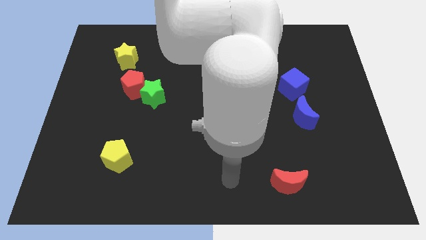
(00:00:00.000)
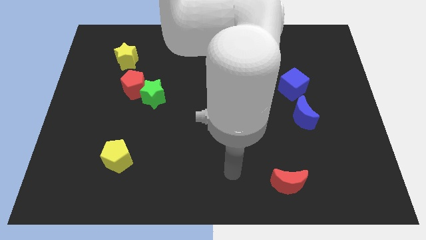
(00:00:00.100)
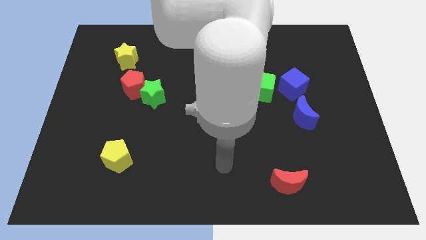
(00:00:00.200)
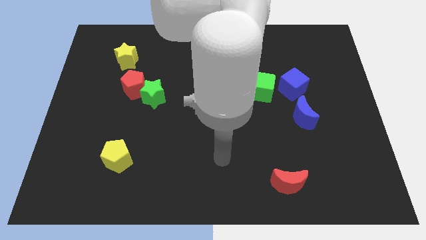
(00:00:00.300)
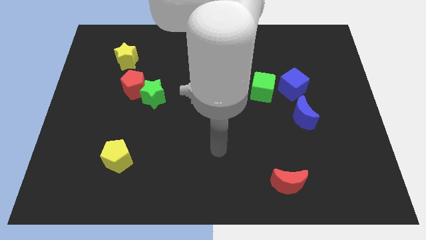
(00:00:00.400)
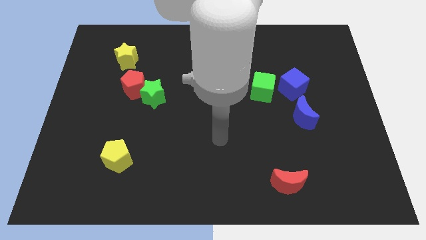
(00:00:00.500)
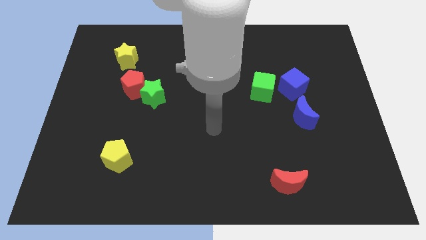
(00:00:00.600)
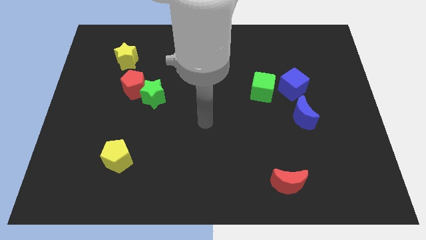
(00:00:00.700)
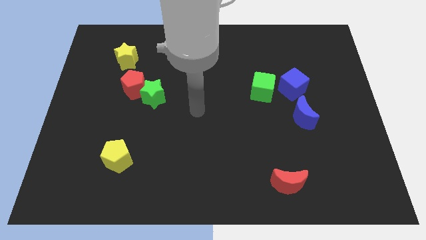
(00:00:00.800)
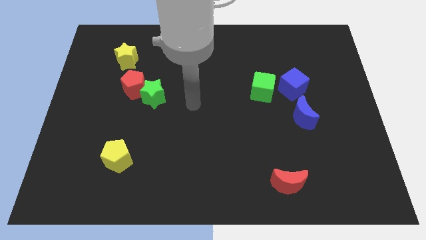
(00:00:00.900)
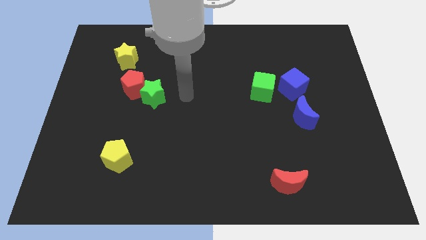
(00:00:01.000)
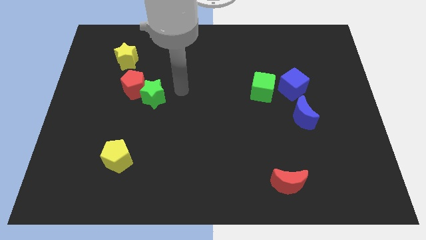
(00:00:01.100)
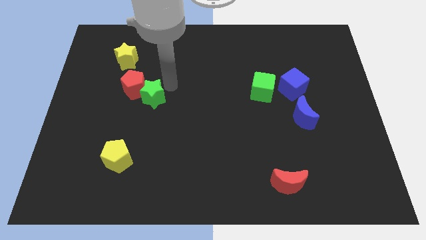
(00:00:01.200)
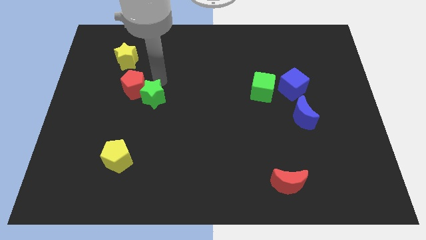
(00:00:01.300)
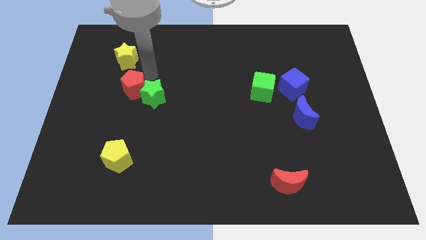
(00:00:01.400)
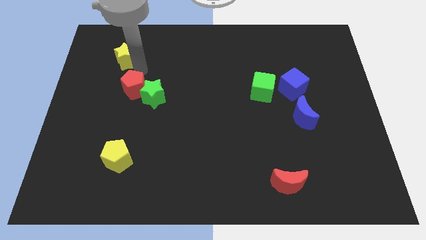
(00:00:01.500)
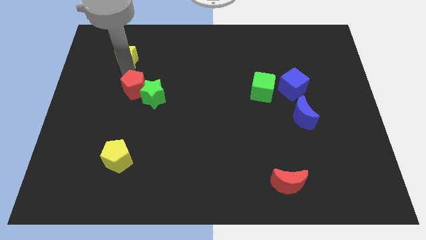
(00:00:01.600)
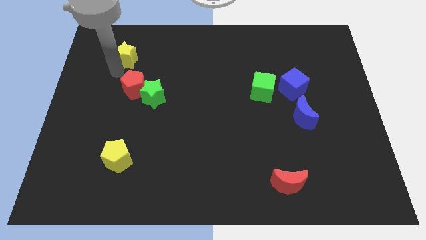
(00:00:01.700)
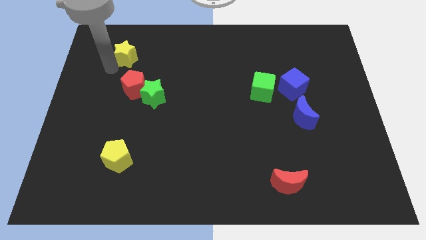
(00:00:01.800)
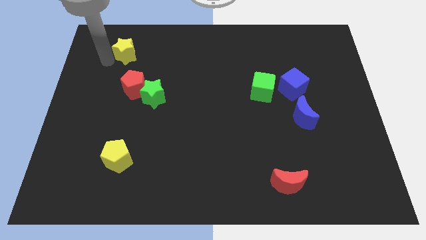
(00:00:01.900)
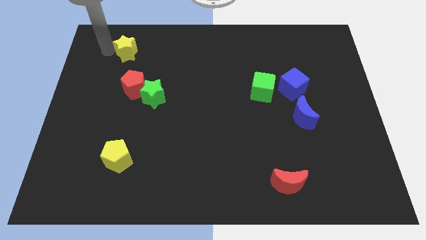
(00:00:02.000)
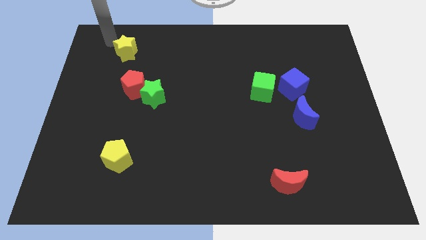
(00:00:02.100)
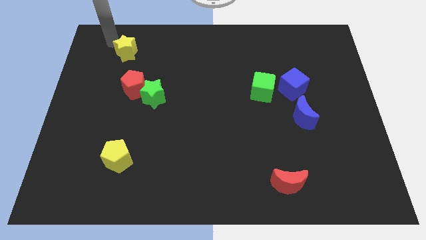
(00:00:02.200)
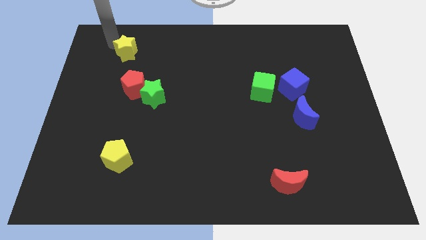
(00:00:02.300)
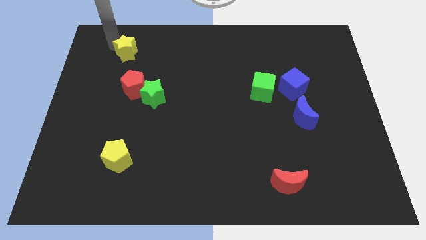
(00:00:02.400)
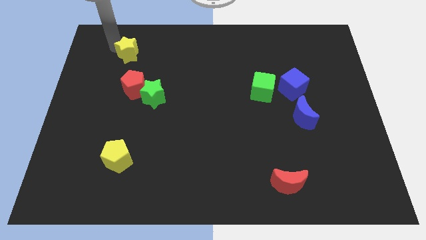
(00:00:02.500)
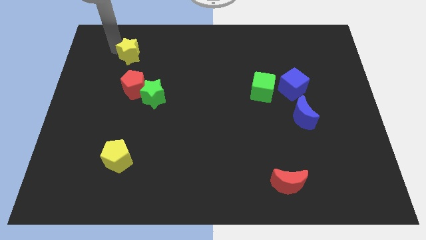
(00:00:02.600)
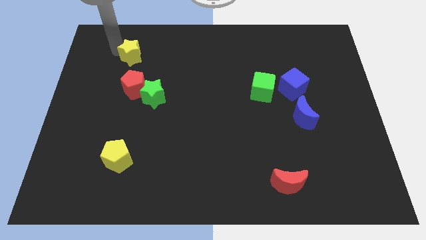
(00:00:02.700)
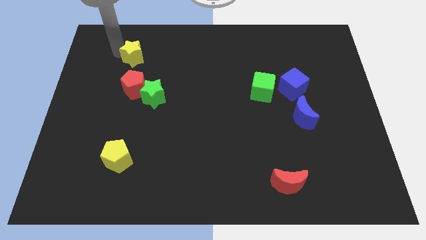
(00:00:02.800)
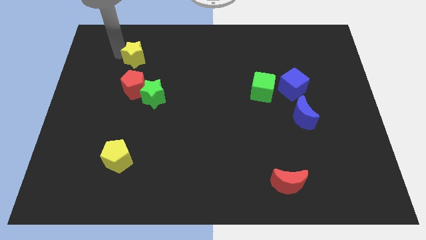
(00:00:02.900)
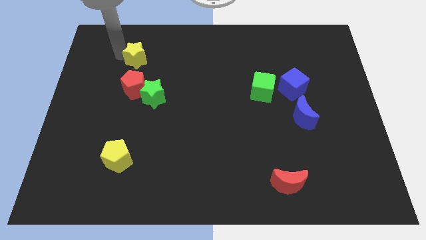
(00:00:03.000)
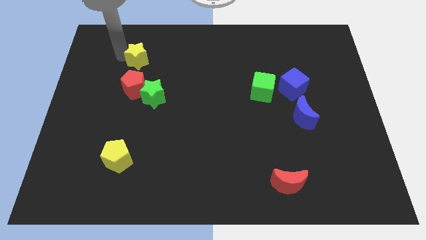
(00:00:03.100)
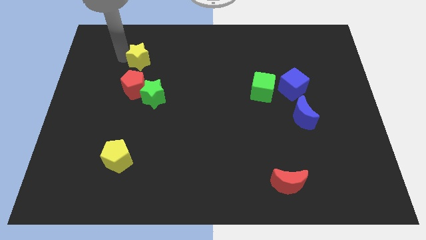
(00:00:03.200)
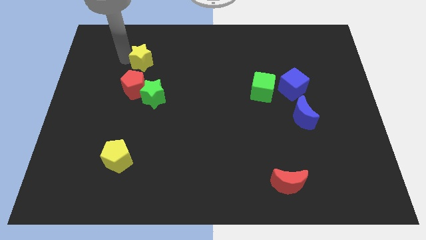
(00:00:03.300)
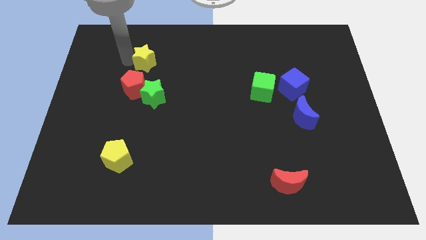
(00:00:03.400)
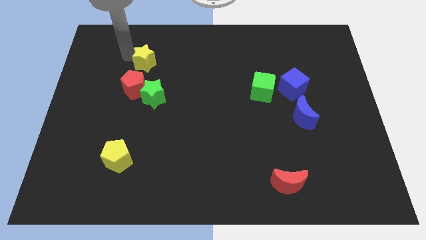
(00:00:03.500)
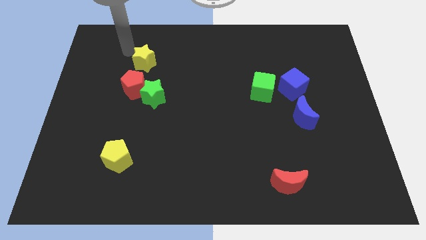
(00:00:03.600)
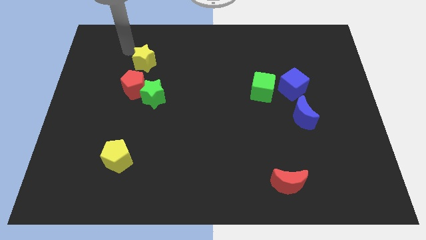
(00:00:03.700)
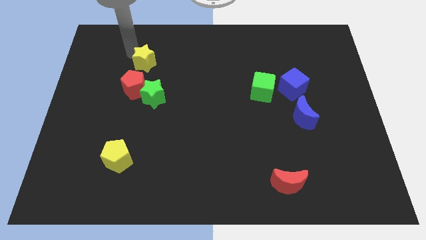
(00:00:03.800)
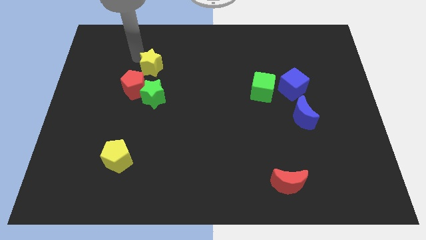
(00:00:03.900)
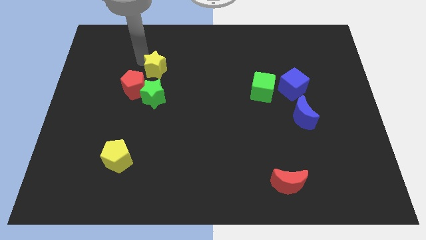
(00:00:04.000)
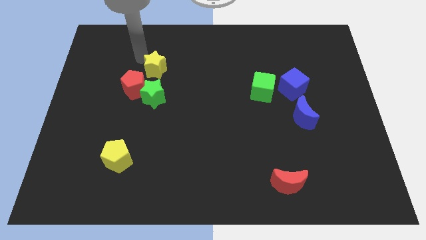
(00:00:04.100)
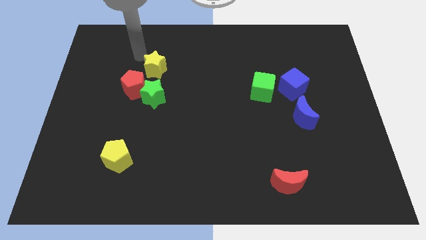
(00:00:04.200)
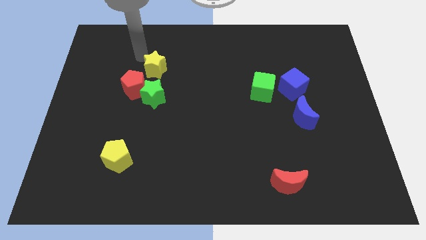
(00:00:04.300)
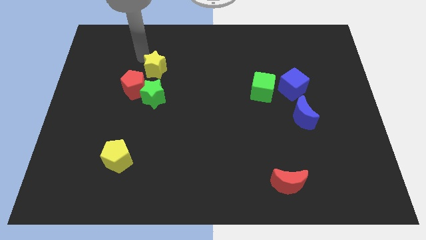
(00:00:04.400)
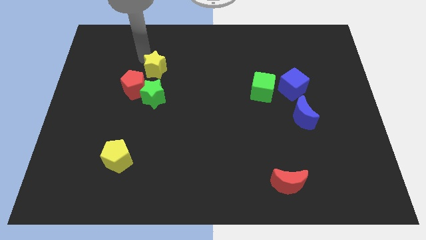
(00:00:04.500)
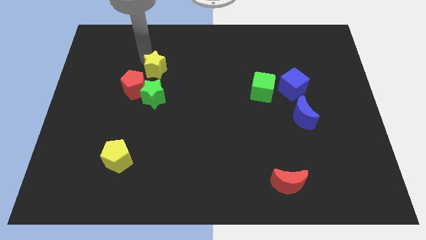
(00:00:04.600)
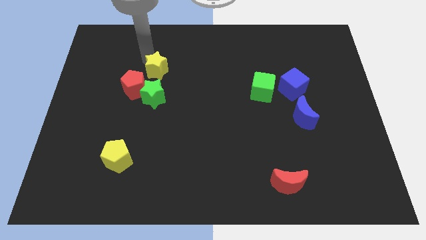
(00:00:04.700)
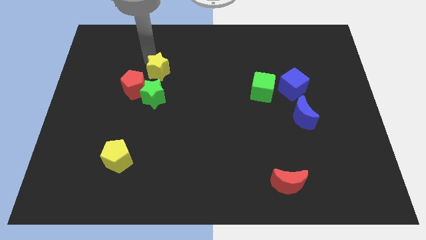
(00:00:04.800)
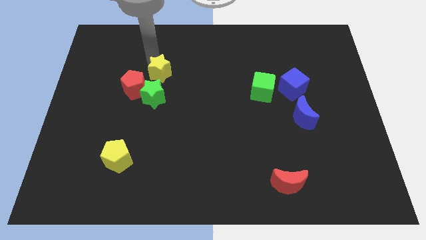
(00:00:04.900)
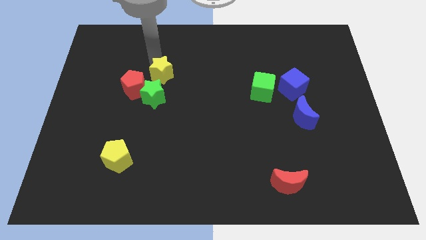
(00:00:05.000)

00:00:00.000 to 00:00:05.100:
move the yellow star to the right of the red pentagon

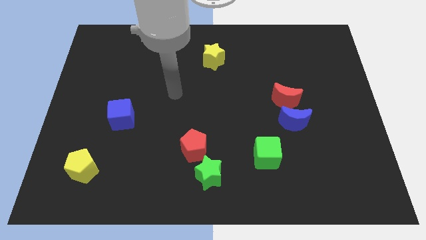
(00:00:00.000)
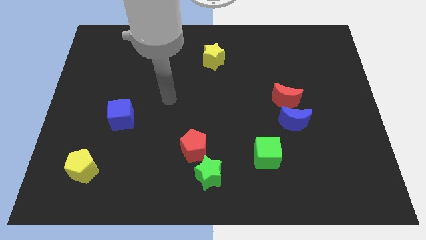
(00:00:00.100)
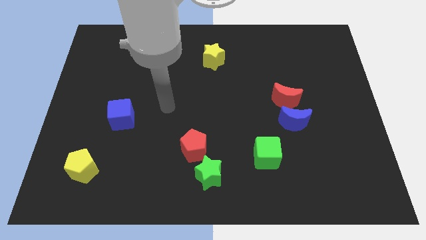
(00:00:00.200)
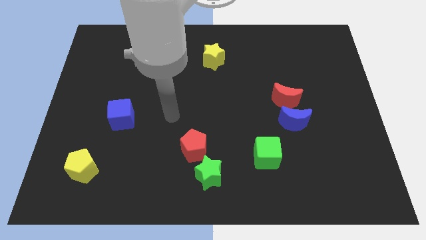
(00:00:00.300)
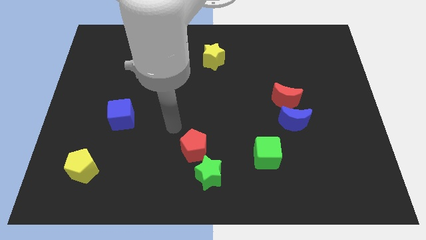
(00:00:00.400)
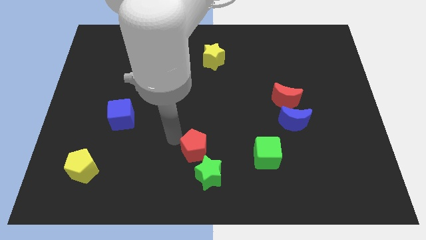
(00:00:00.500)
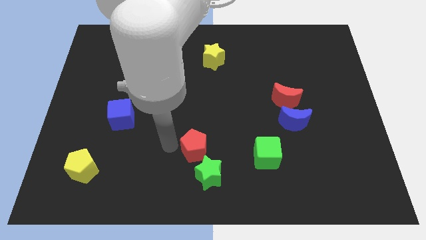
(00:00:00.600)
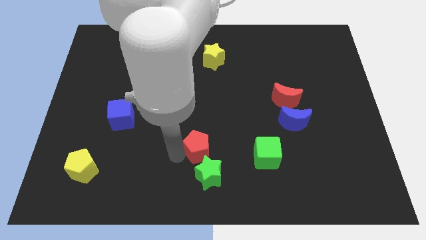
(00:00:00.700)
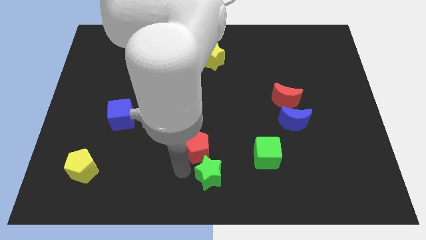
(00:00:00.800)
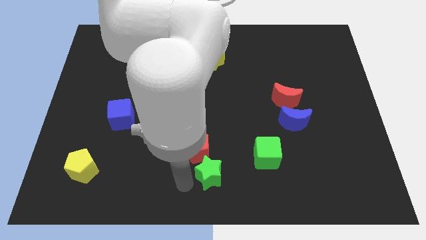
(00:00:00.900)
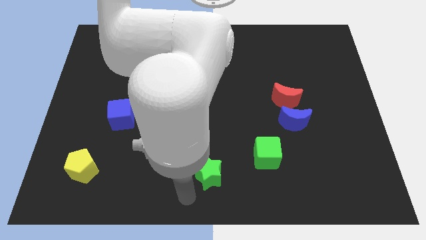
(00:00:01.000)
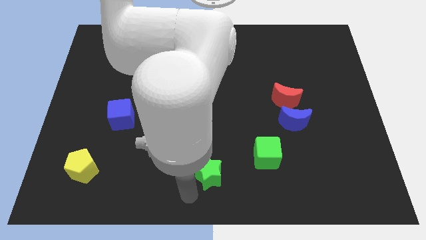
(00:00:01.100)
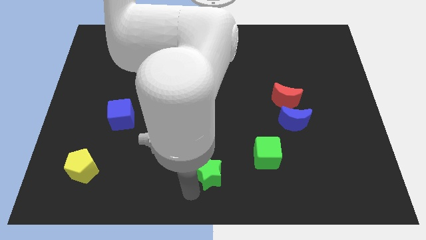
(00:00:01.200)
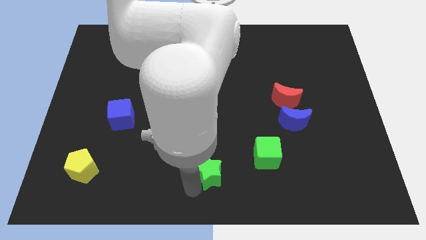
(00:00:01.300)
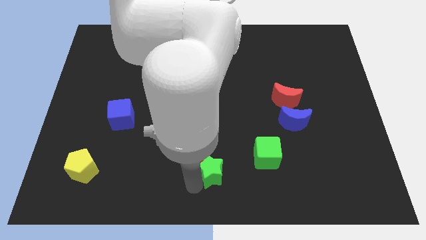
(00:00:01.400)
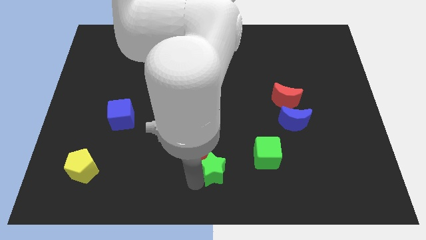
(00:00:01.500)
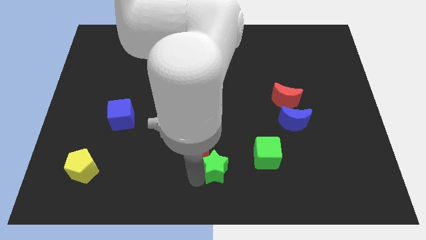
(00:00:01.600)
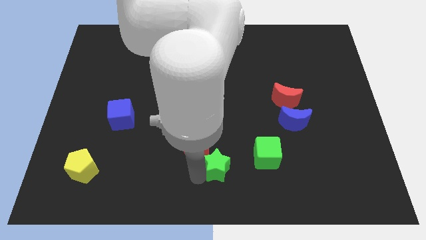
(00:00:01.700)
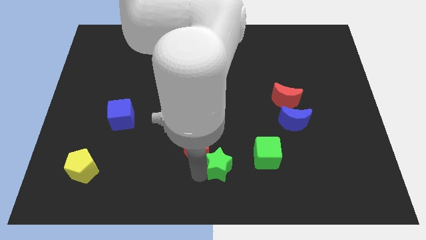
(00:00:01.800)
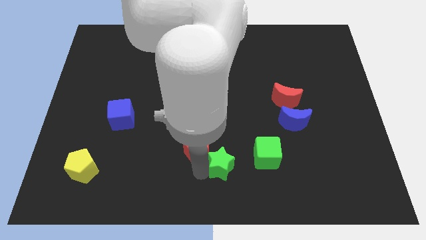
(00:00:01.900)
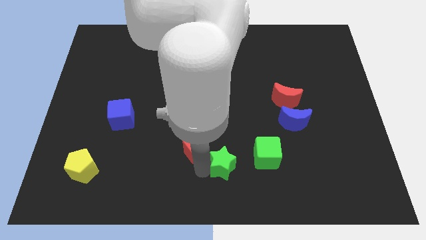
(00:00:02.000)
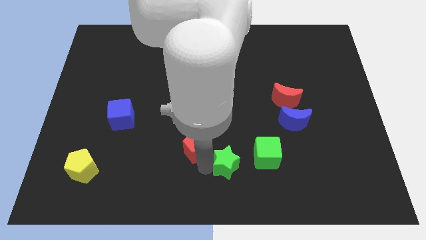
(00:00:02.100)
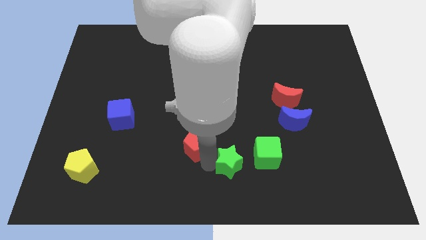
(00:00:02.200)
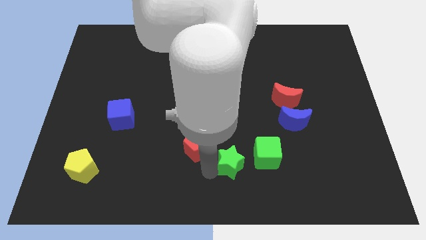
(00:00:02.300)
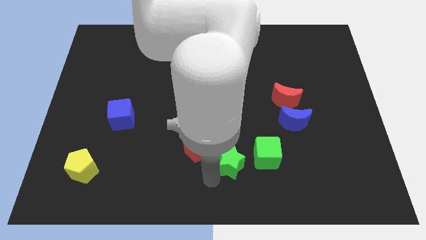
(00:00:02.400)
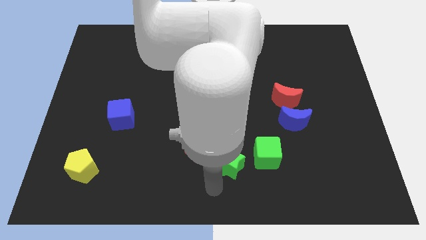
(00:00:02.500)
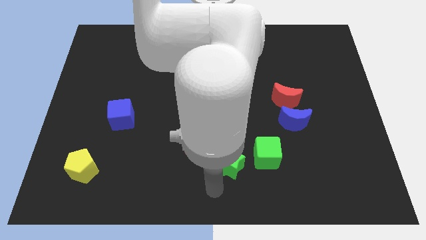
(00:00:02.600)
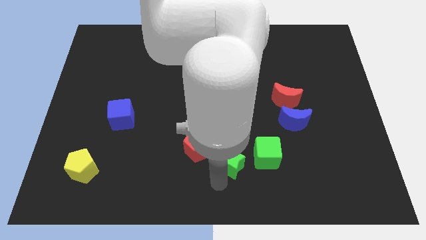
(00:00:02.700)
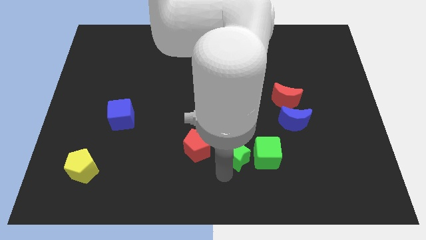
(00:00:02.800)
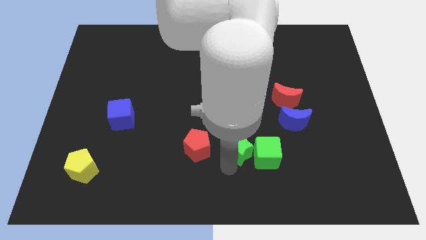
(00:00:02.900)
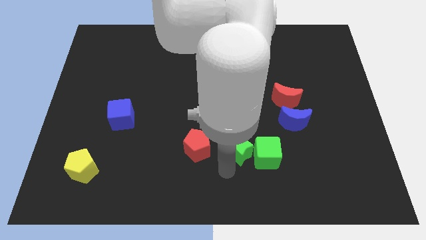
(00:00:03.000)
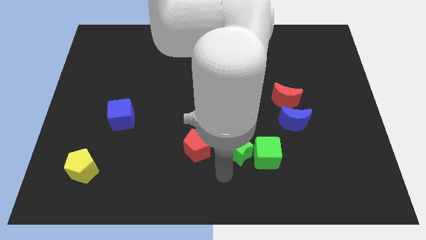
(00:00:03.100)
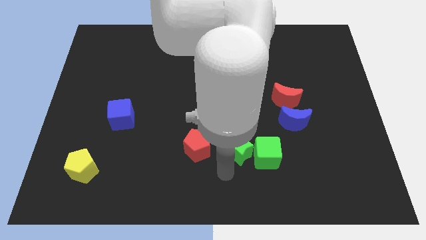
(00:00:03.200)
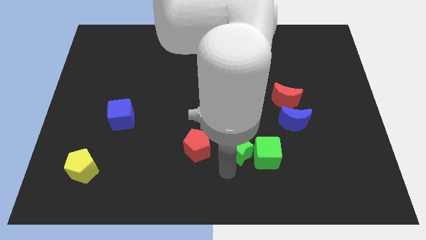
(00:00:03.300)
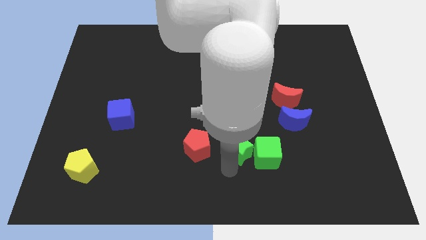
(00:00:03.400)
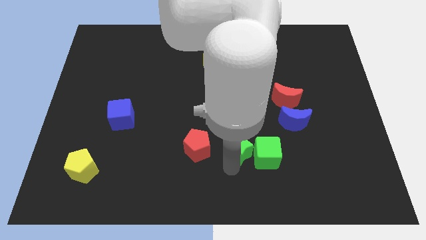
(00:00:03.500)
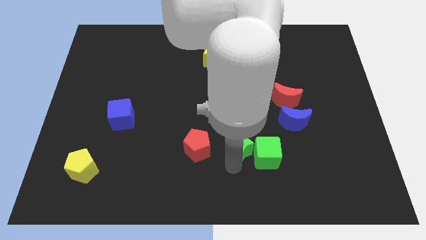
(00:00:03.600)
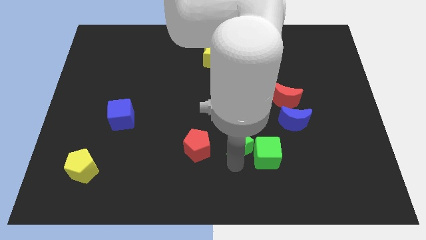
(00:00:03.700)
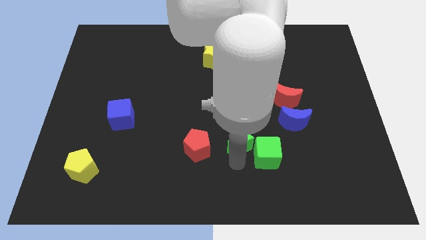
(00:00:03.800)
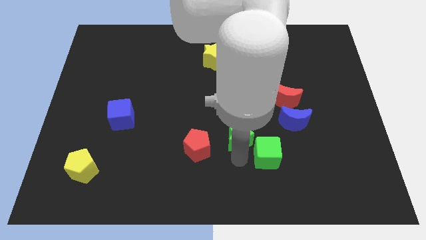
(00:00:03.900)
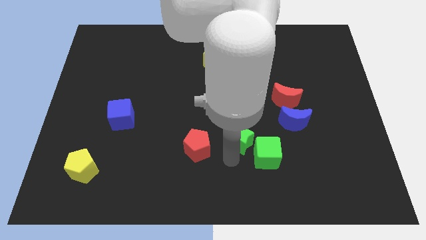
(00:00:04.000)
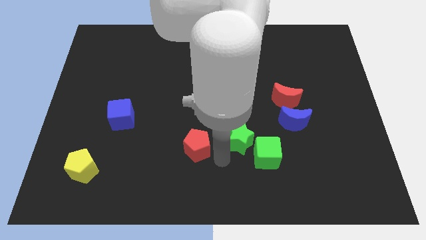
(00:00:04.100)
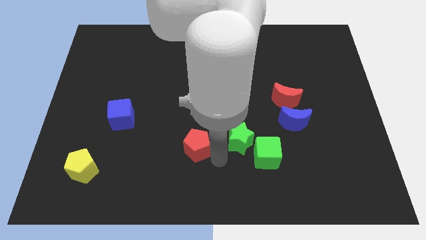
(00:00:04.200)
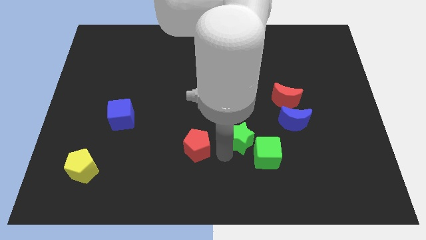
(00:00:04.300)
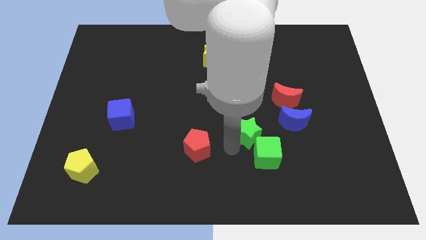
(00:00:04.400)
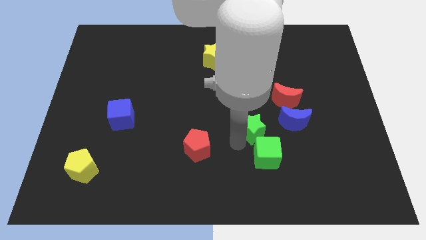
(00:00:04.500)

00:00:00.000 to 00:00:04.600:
push the green star to the bottom left side of the red moon
